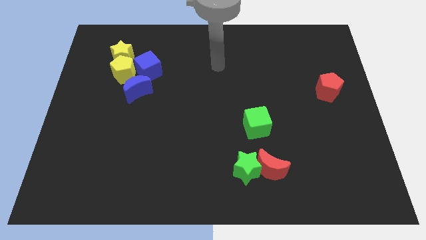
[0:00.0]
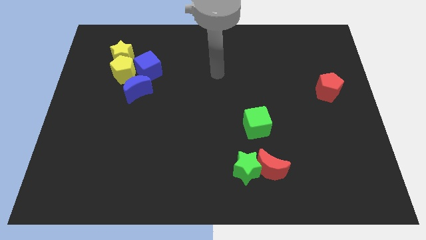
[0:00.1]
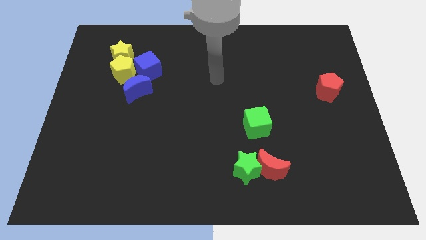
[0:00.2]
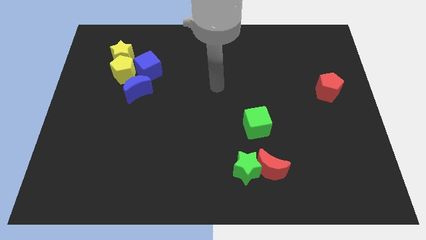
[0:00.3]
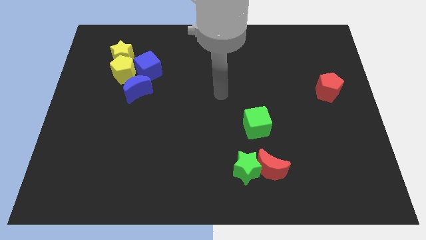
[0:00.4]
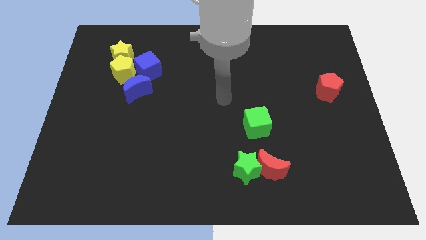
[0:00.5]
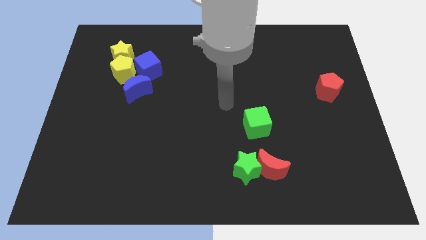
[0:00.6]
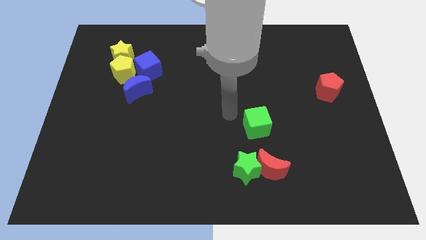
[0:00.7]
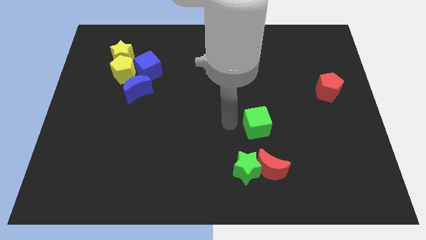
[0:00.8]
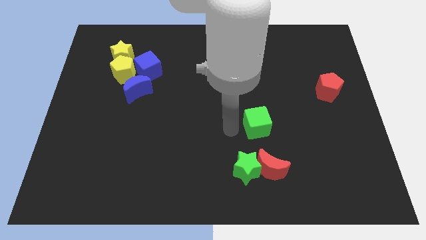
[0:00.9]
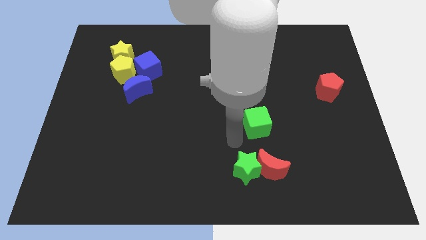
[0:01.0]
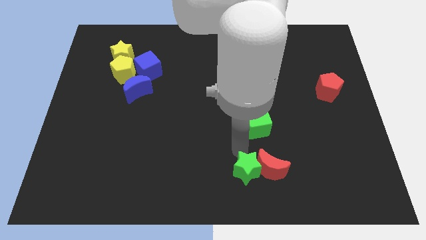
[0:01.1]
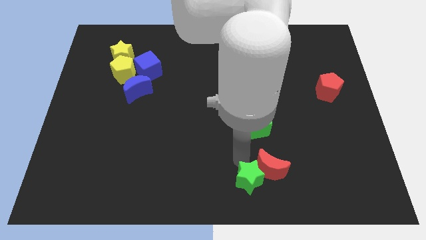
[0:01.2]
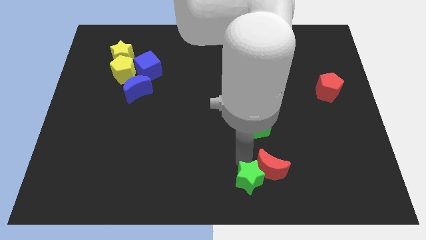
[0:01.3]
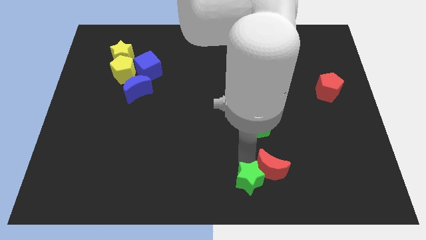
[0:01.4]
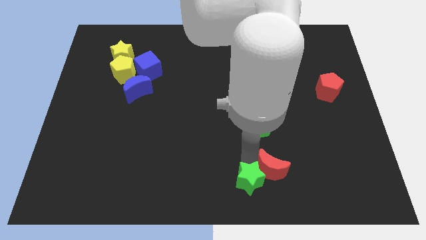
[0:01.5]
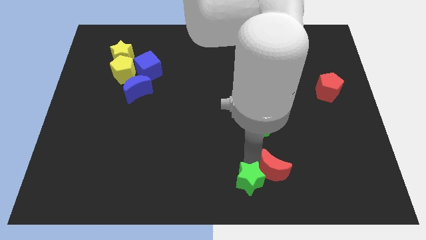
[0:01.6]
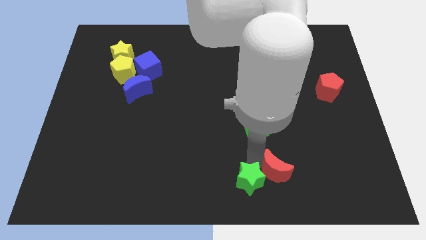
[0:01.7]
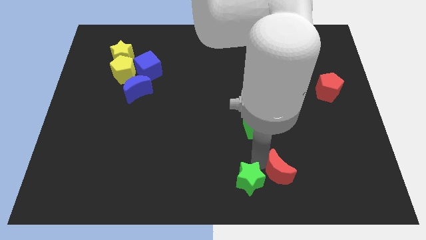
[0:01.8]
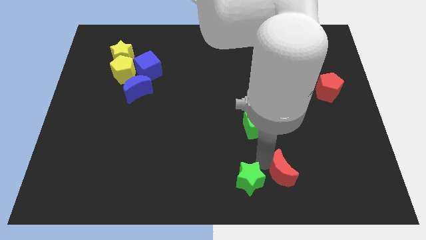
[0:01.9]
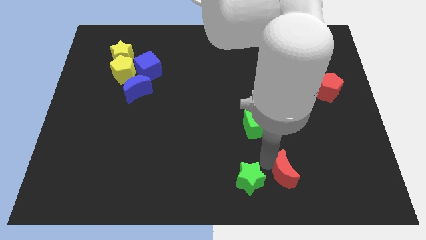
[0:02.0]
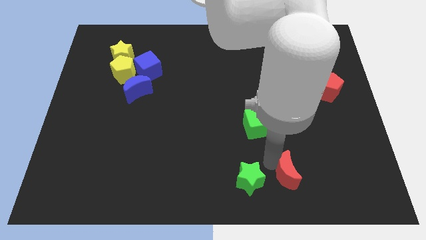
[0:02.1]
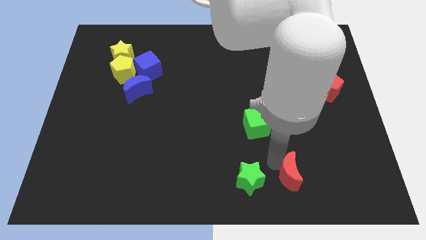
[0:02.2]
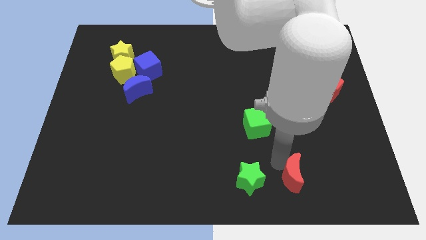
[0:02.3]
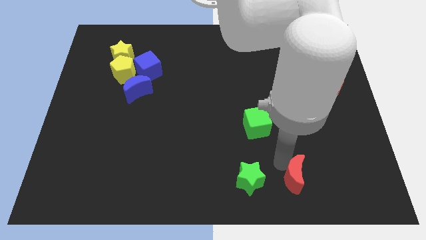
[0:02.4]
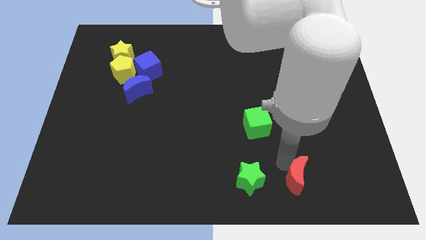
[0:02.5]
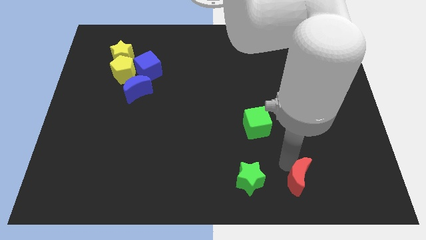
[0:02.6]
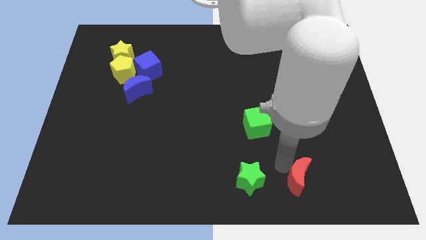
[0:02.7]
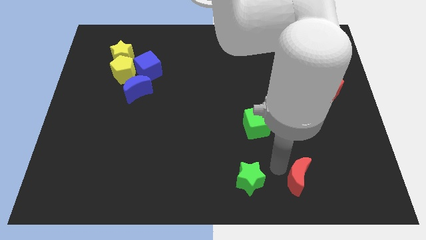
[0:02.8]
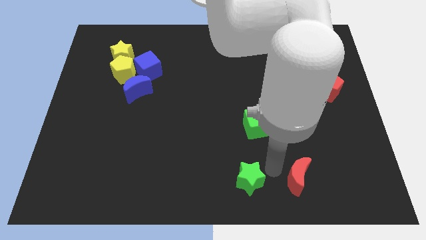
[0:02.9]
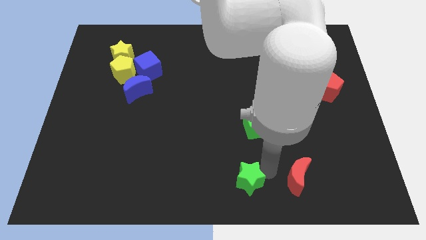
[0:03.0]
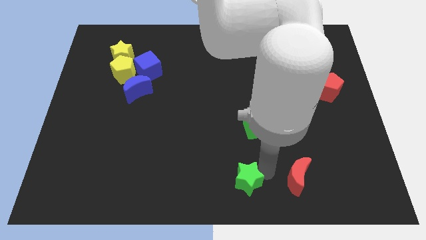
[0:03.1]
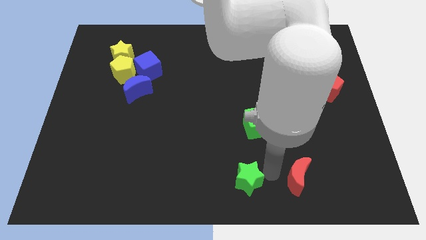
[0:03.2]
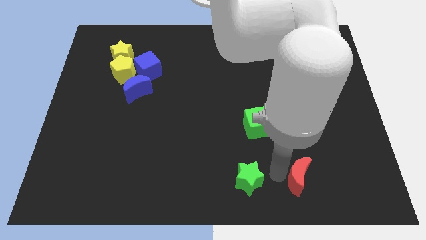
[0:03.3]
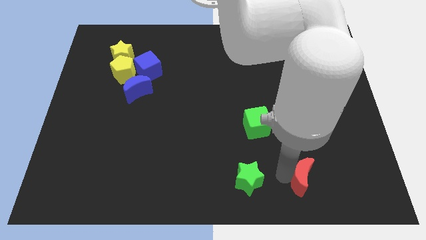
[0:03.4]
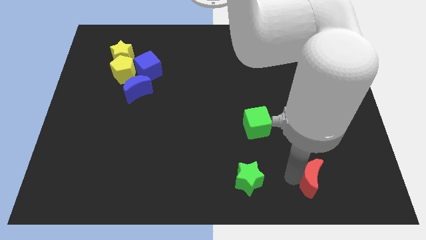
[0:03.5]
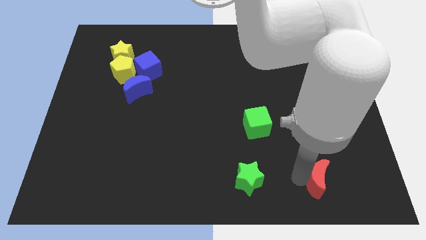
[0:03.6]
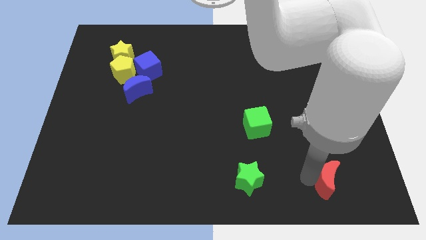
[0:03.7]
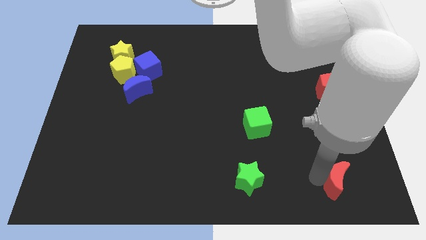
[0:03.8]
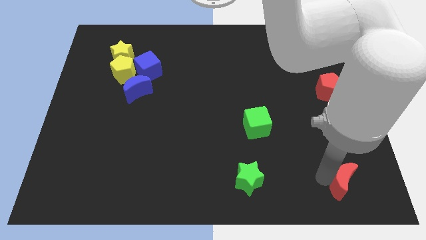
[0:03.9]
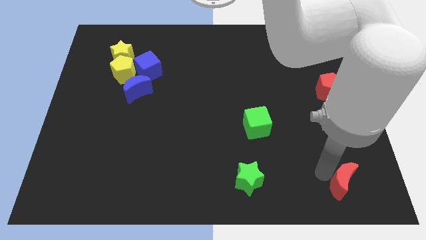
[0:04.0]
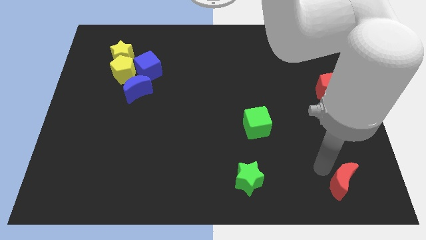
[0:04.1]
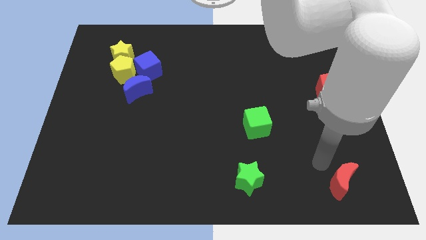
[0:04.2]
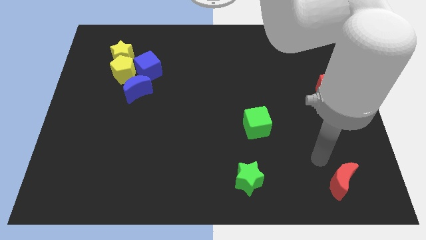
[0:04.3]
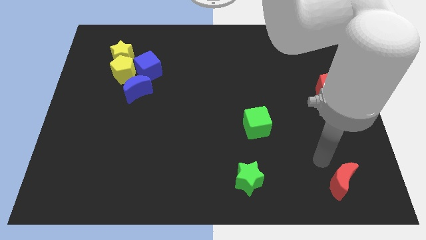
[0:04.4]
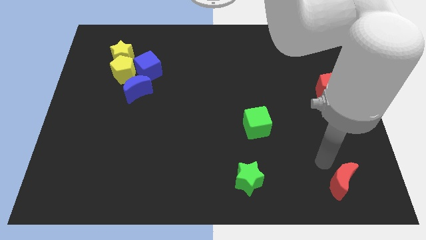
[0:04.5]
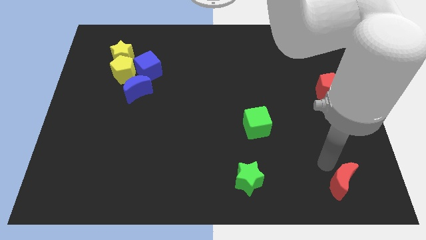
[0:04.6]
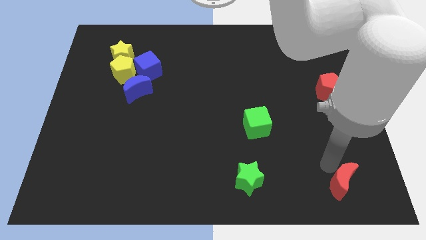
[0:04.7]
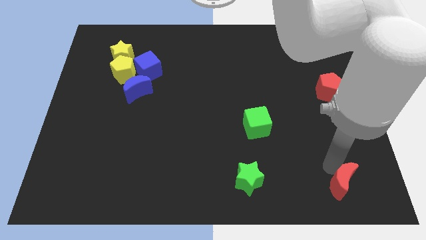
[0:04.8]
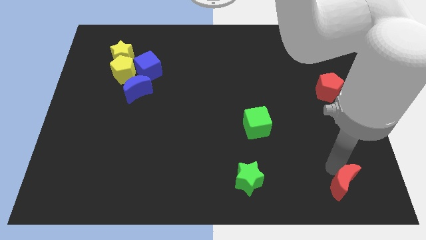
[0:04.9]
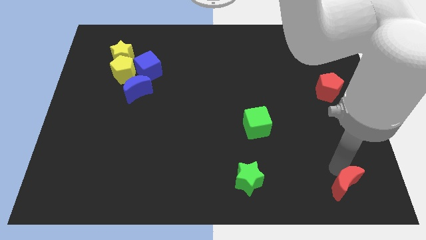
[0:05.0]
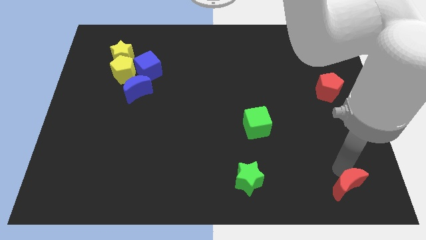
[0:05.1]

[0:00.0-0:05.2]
put the red moon to the bottom right corner

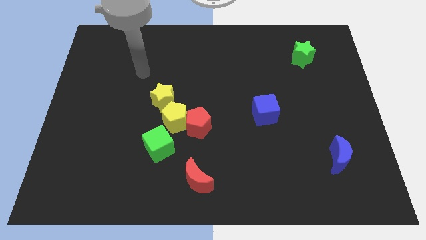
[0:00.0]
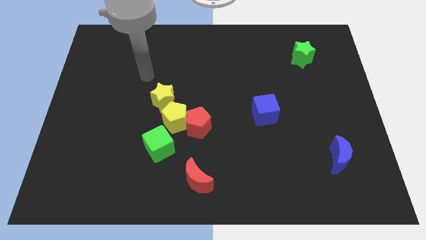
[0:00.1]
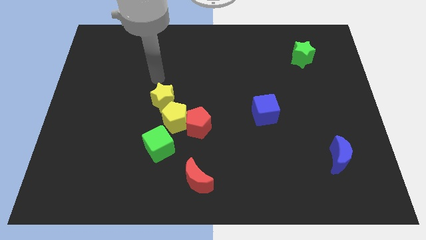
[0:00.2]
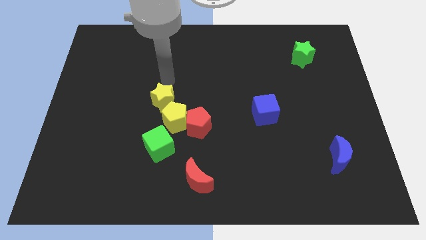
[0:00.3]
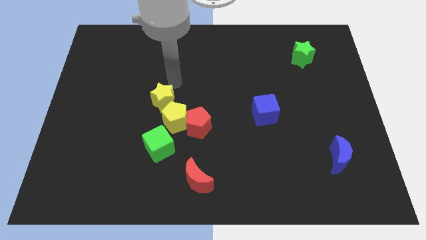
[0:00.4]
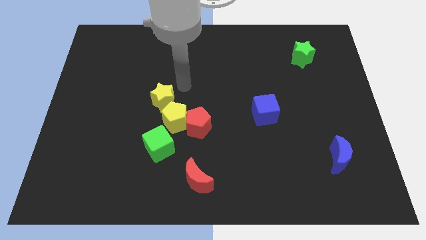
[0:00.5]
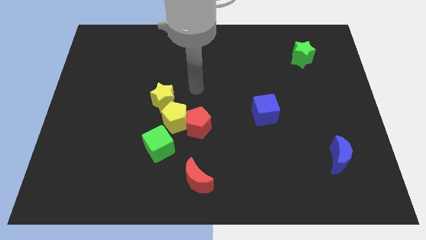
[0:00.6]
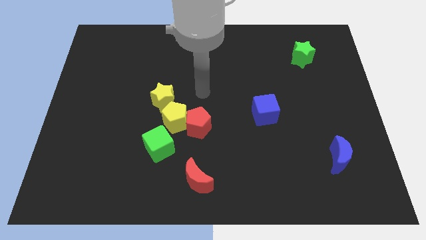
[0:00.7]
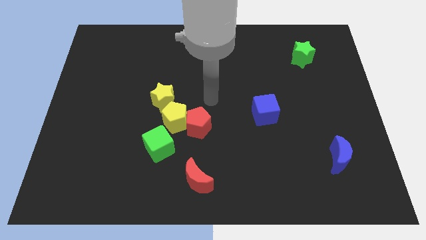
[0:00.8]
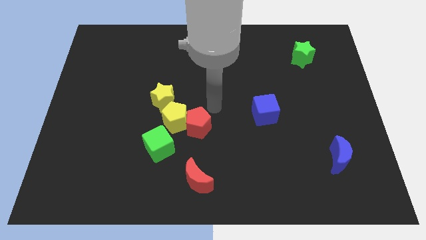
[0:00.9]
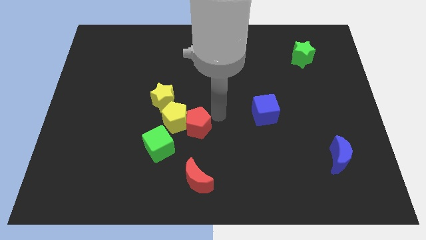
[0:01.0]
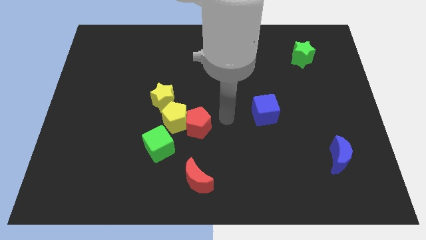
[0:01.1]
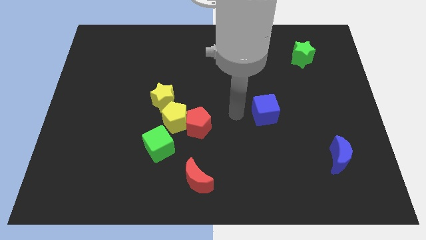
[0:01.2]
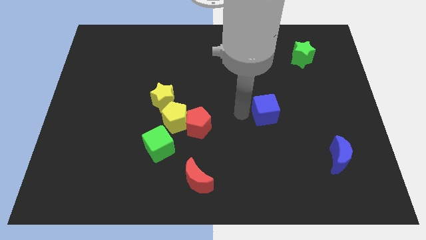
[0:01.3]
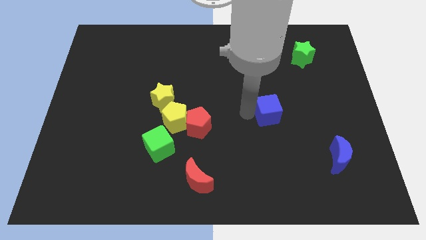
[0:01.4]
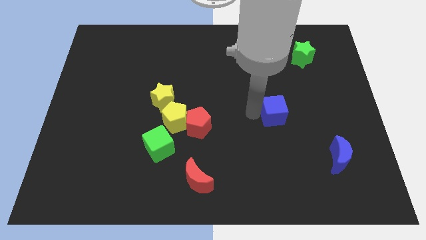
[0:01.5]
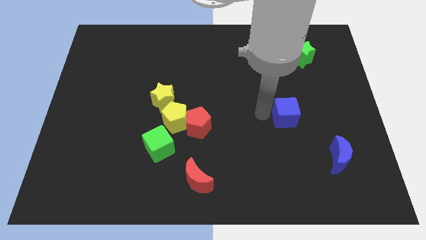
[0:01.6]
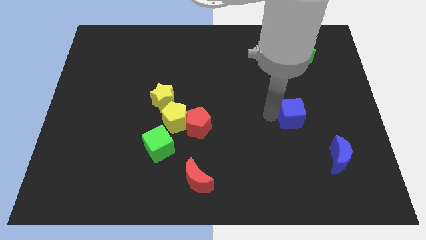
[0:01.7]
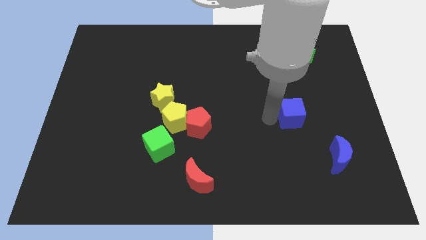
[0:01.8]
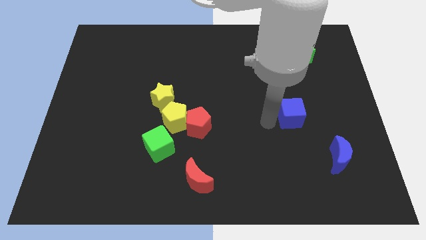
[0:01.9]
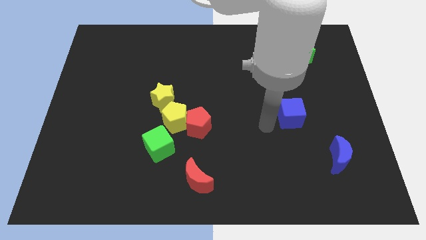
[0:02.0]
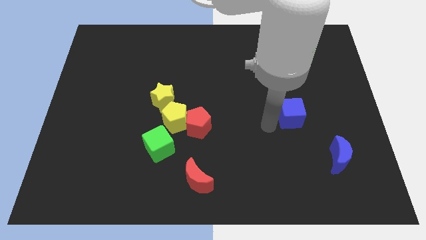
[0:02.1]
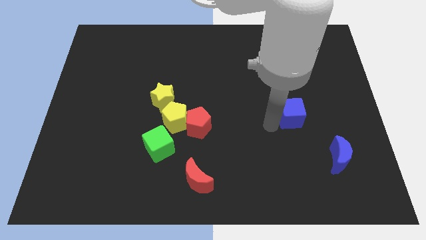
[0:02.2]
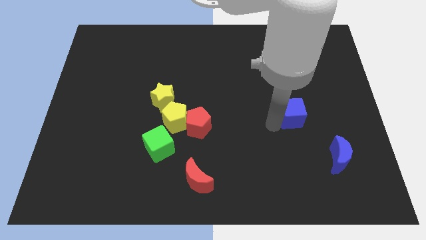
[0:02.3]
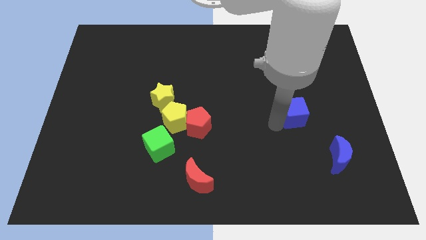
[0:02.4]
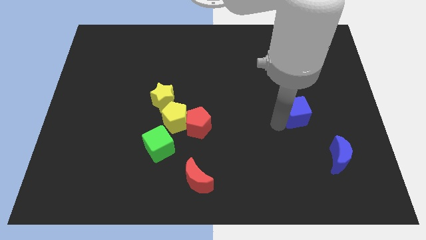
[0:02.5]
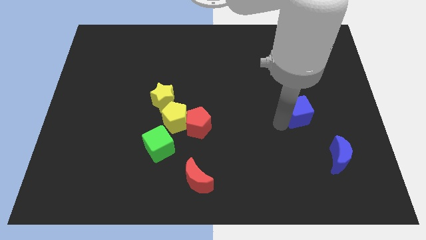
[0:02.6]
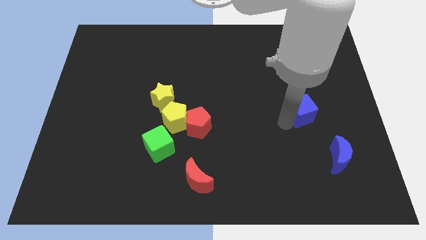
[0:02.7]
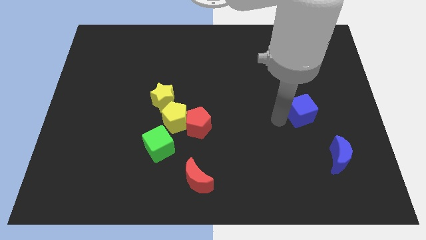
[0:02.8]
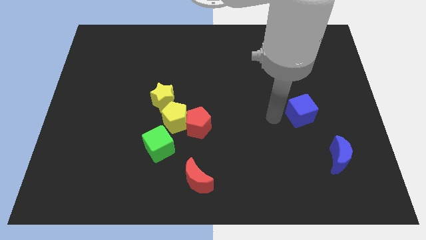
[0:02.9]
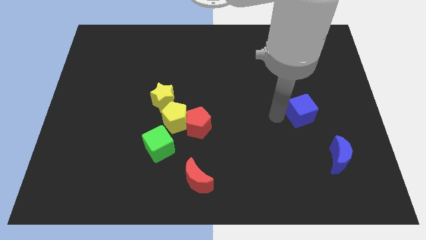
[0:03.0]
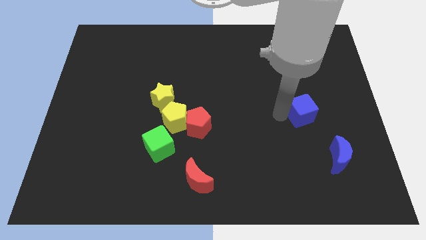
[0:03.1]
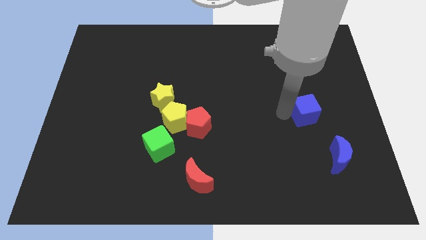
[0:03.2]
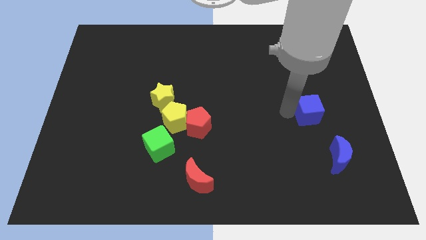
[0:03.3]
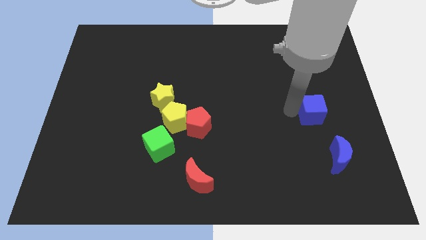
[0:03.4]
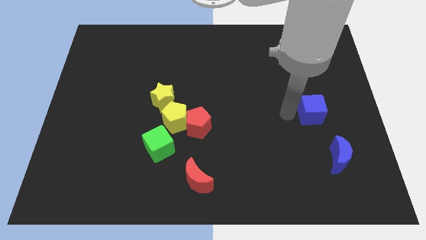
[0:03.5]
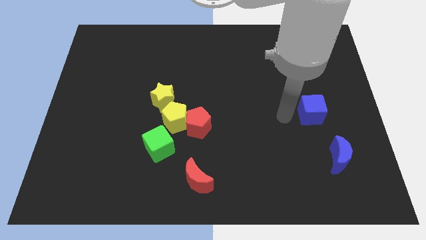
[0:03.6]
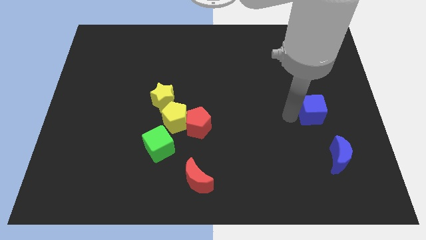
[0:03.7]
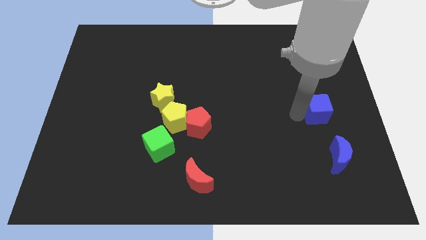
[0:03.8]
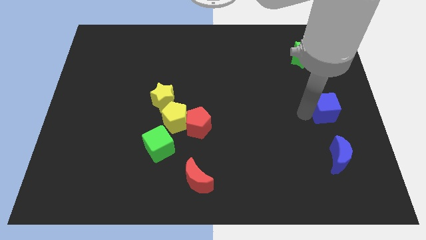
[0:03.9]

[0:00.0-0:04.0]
put the blue cube to the center right
